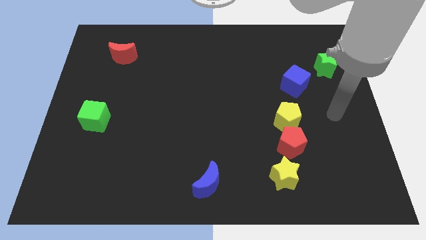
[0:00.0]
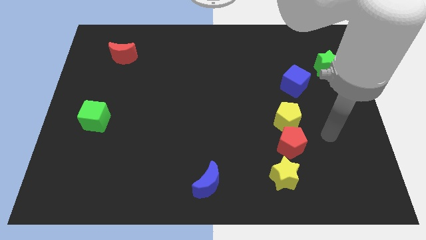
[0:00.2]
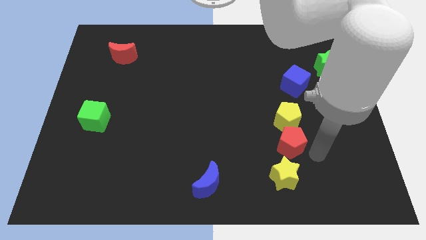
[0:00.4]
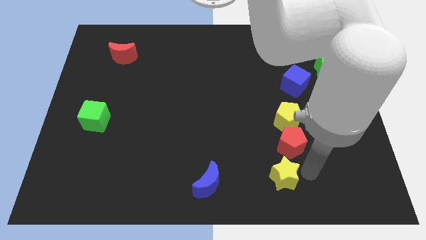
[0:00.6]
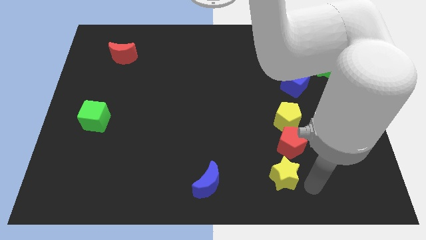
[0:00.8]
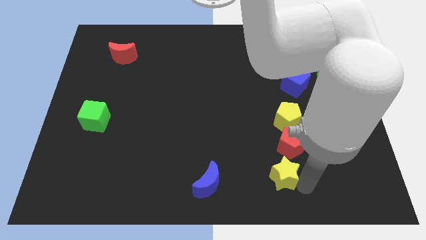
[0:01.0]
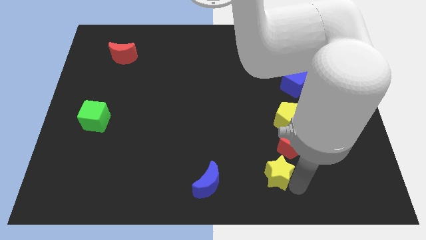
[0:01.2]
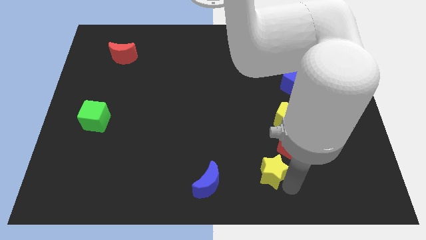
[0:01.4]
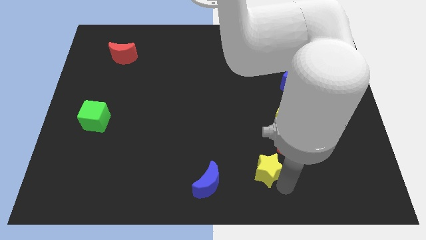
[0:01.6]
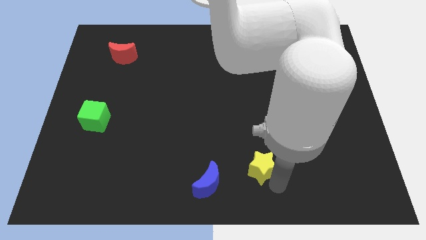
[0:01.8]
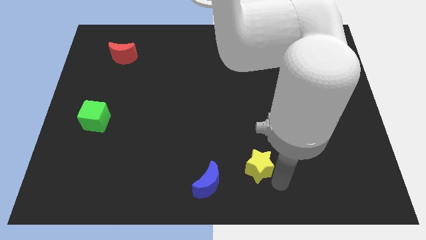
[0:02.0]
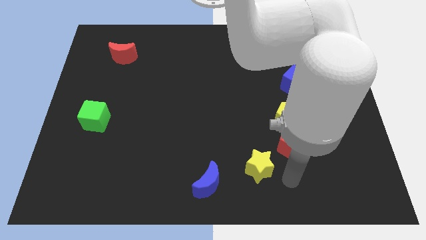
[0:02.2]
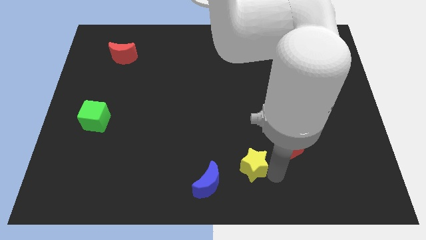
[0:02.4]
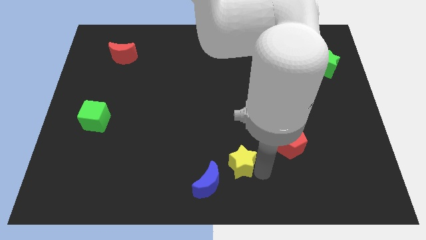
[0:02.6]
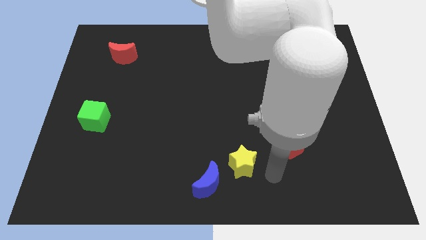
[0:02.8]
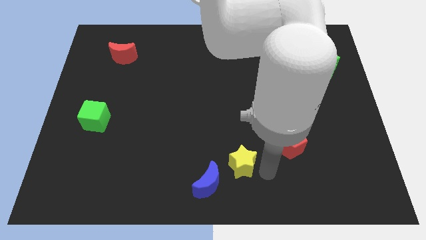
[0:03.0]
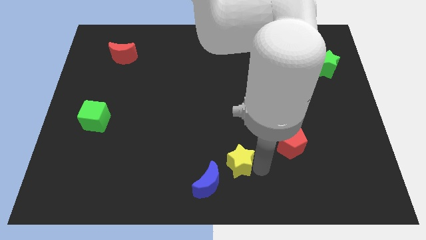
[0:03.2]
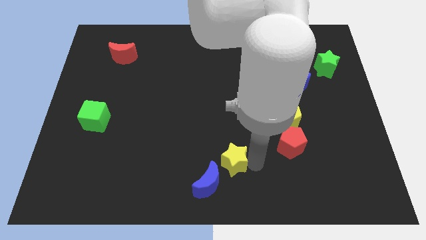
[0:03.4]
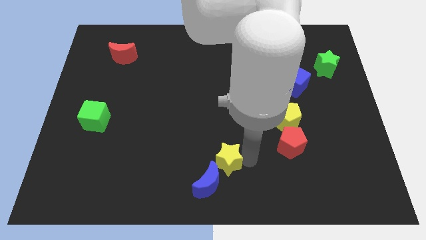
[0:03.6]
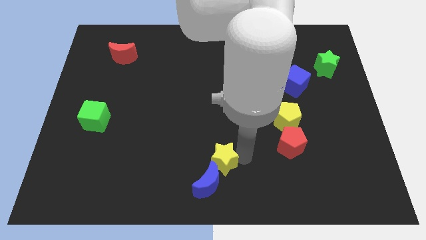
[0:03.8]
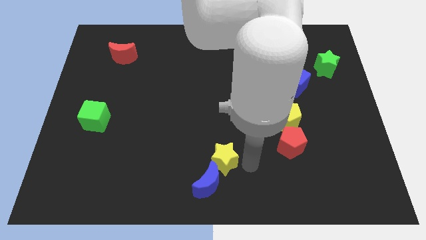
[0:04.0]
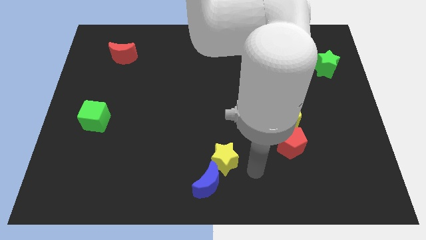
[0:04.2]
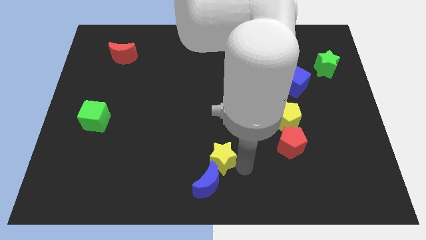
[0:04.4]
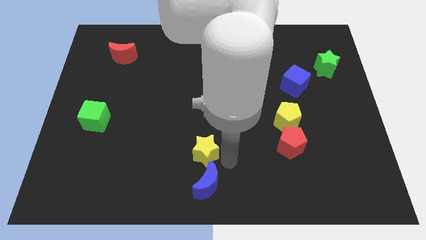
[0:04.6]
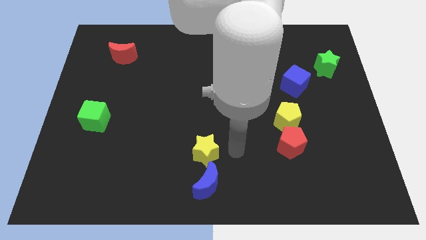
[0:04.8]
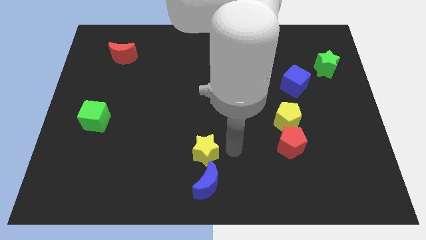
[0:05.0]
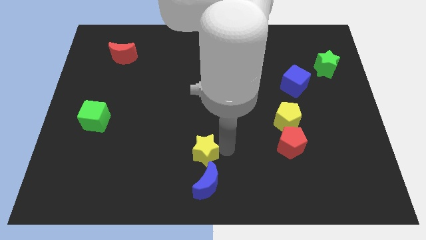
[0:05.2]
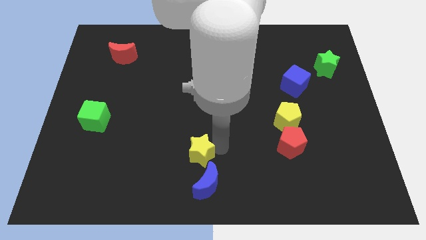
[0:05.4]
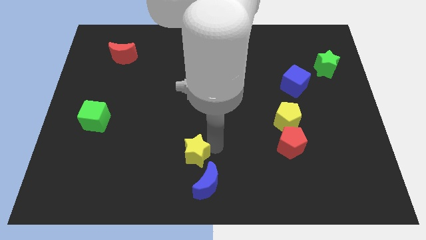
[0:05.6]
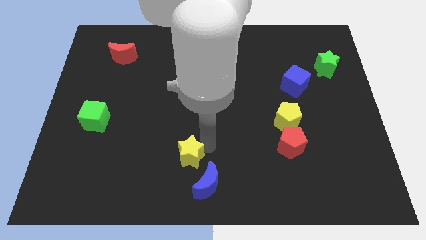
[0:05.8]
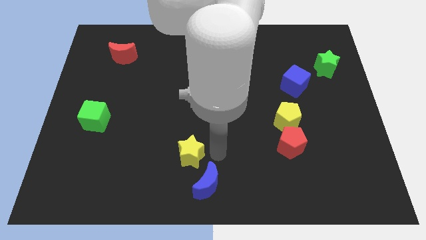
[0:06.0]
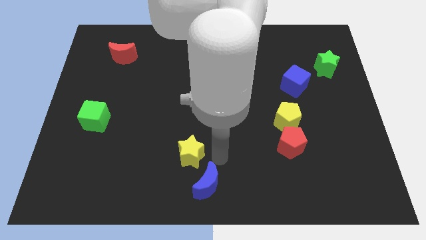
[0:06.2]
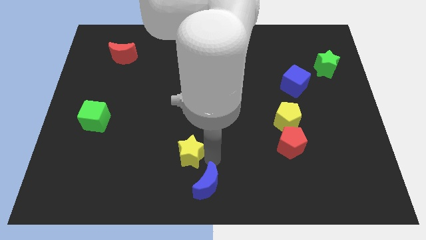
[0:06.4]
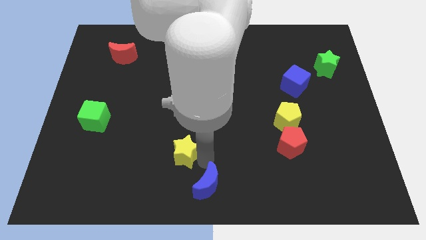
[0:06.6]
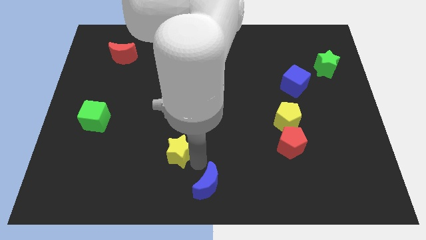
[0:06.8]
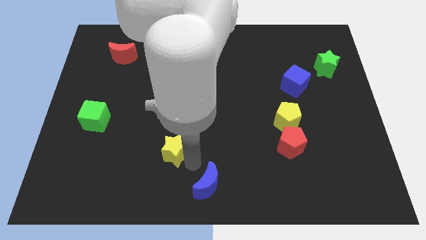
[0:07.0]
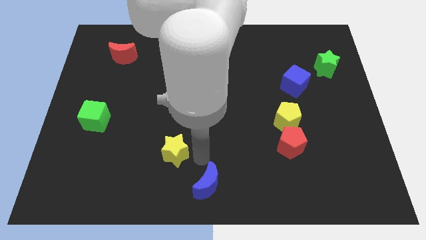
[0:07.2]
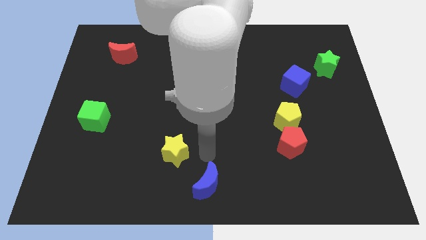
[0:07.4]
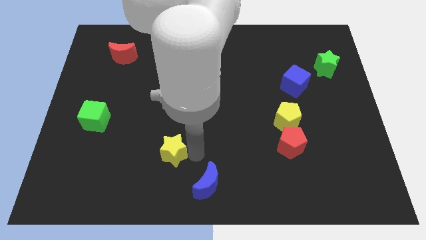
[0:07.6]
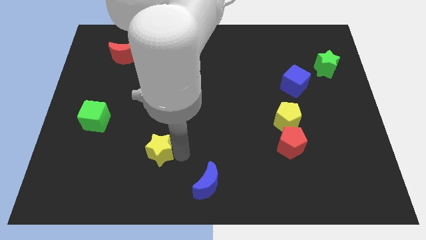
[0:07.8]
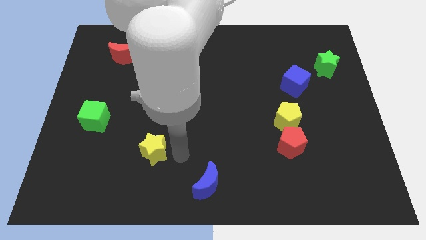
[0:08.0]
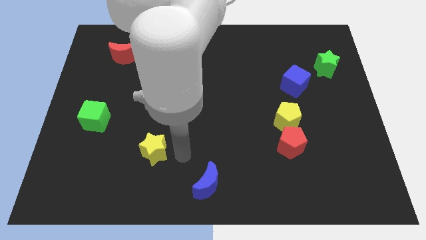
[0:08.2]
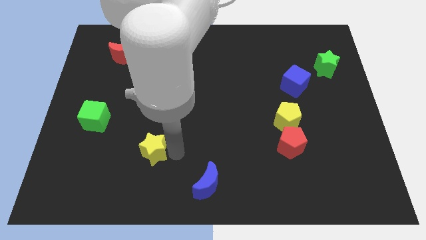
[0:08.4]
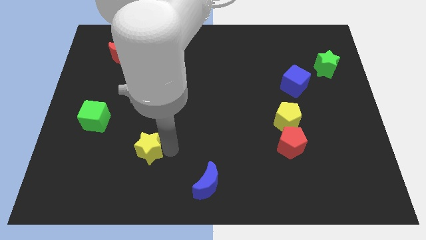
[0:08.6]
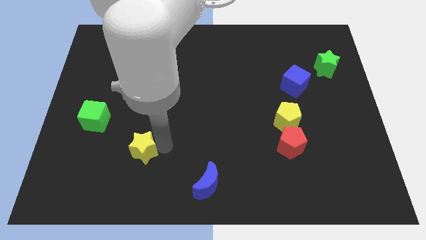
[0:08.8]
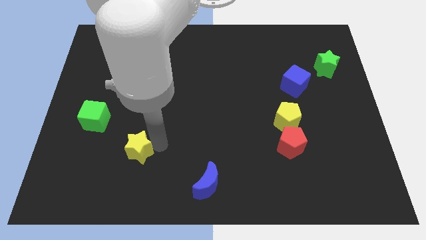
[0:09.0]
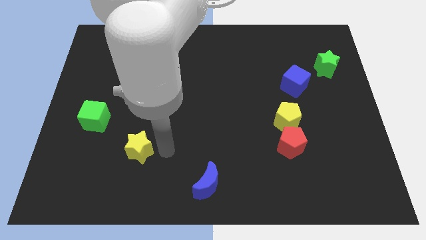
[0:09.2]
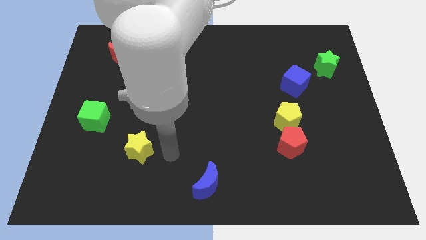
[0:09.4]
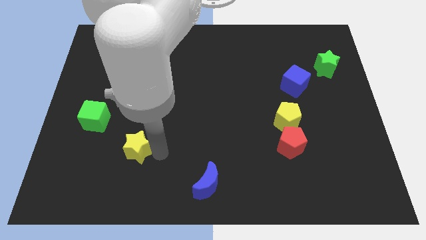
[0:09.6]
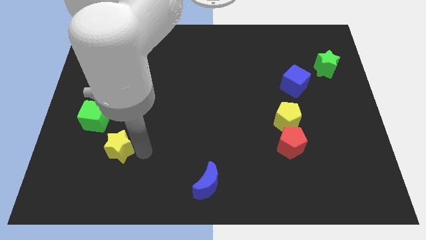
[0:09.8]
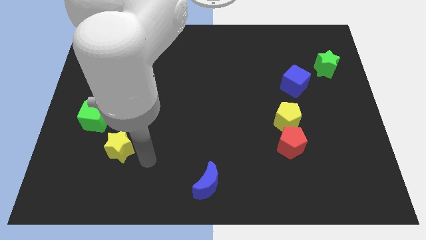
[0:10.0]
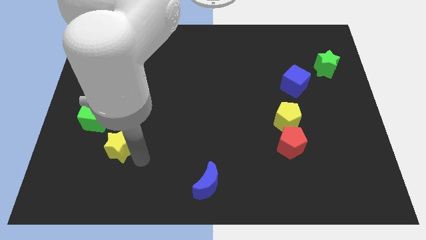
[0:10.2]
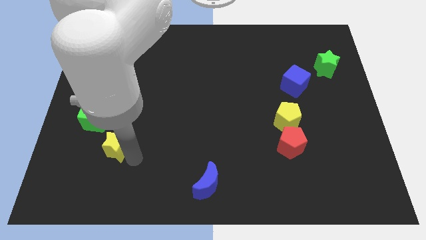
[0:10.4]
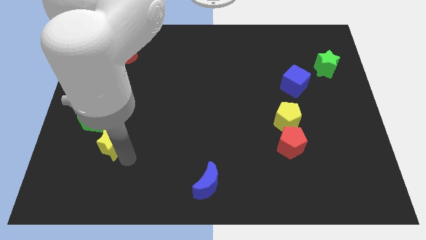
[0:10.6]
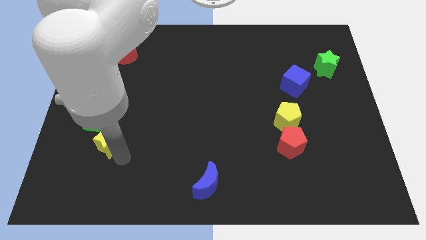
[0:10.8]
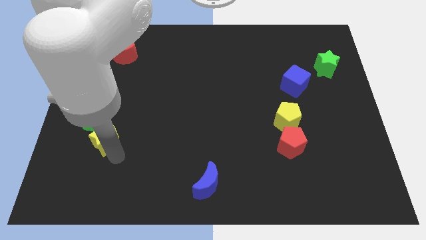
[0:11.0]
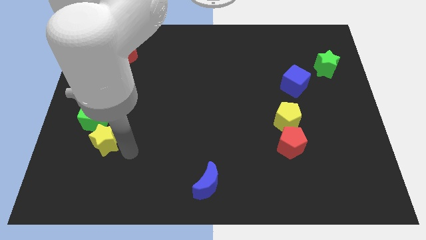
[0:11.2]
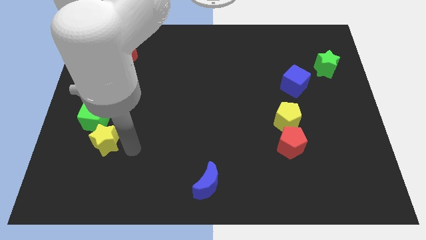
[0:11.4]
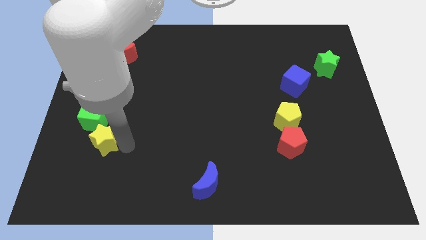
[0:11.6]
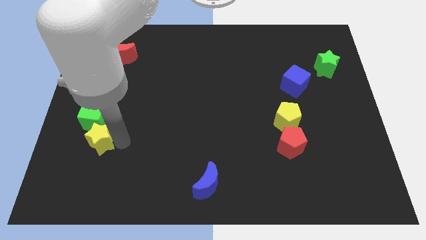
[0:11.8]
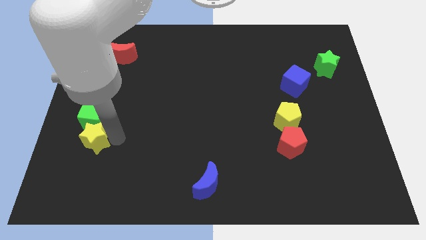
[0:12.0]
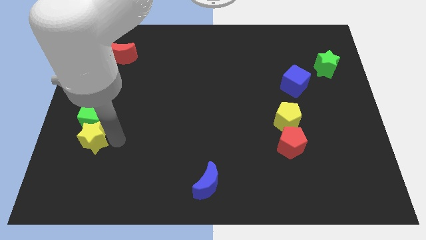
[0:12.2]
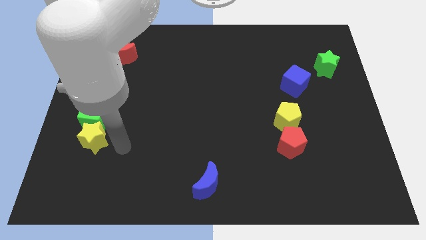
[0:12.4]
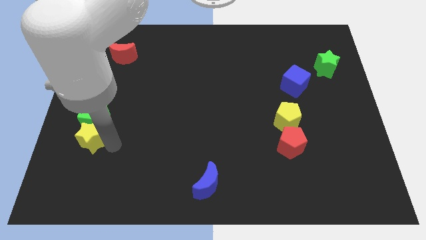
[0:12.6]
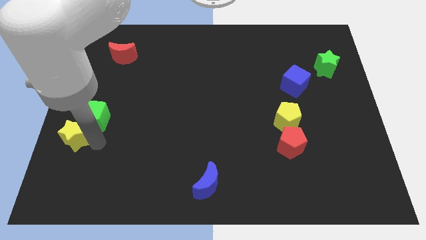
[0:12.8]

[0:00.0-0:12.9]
move the yellow star to the left side
